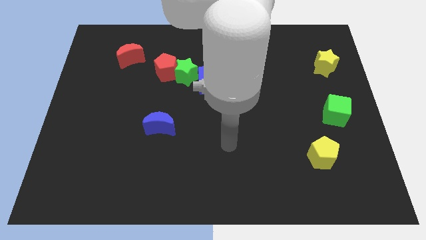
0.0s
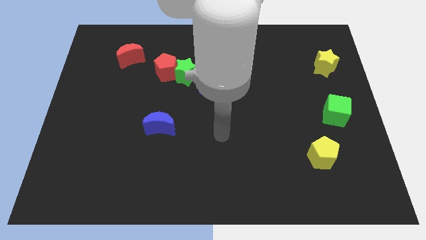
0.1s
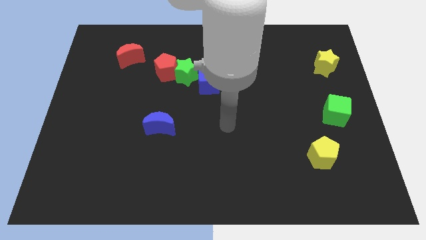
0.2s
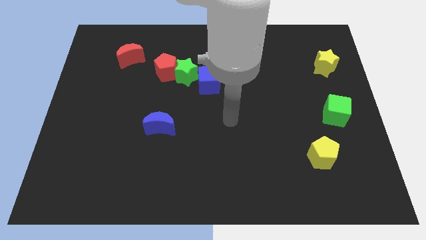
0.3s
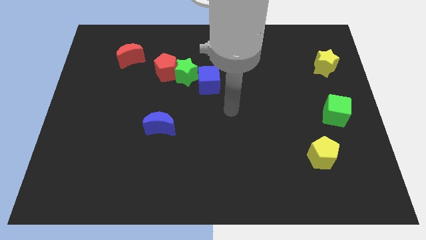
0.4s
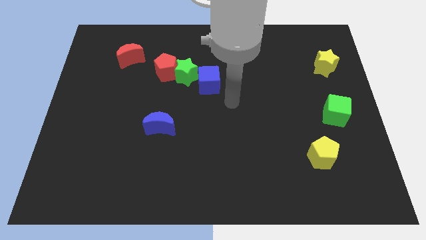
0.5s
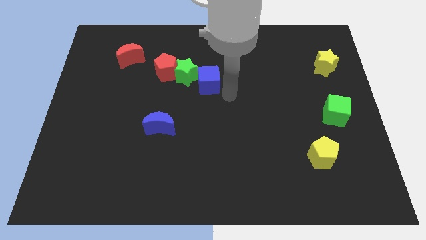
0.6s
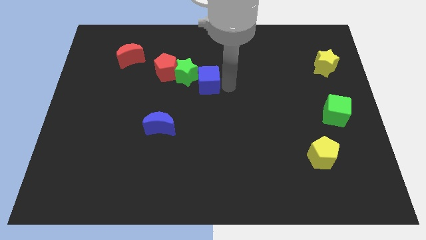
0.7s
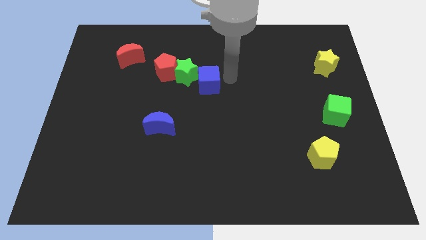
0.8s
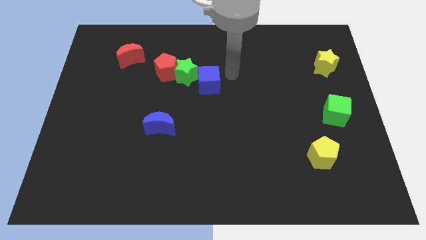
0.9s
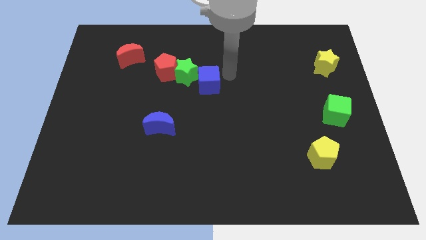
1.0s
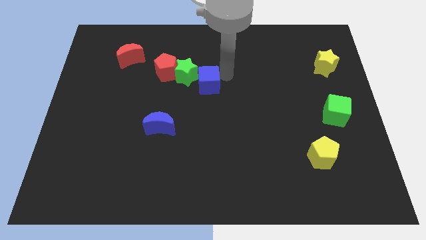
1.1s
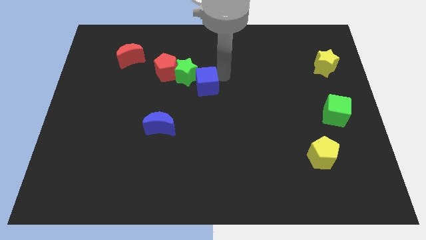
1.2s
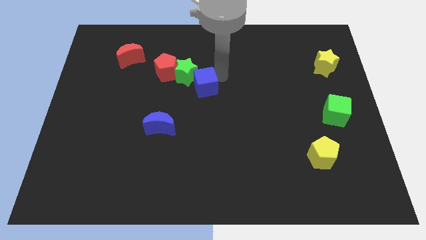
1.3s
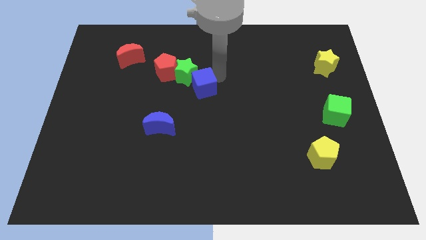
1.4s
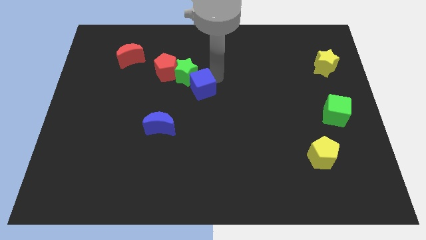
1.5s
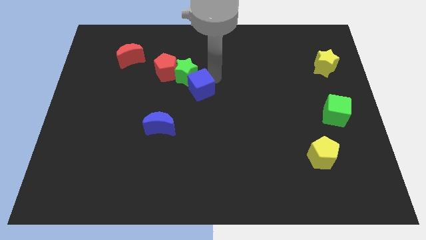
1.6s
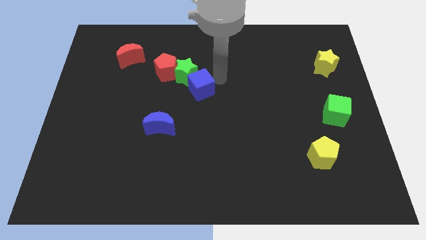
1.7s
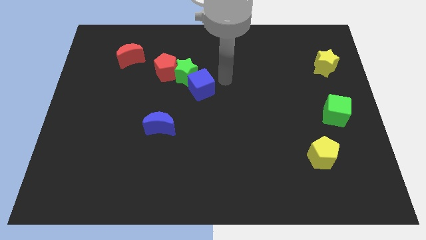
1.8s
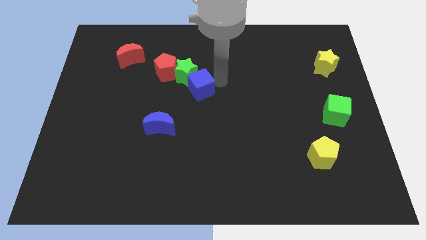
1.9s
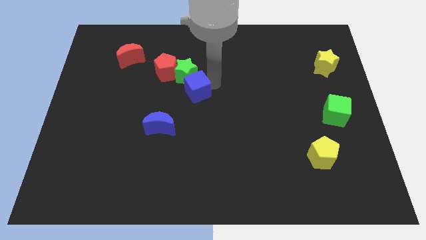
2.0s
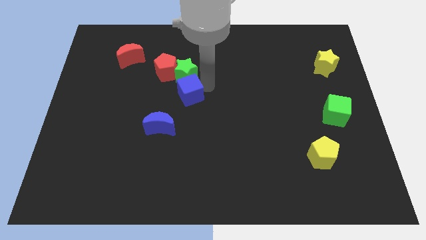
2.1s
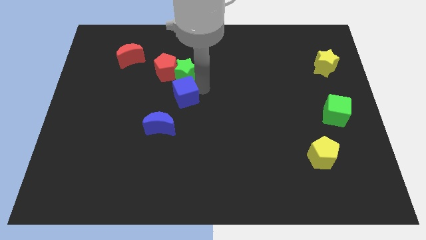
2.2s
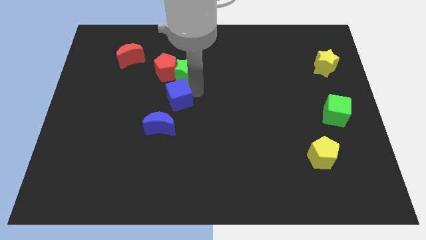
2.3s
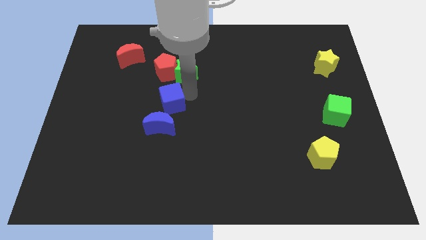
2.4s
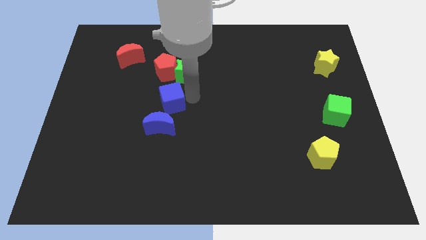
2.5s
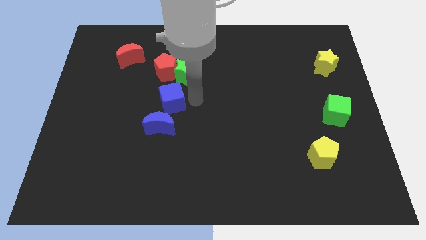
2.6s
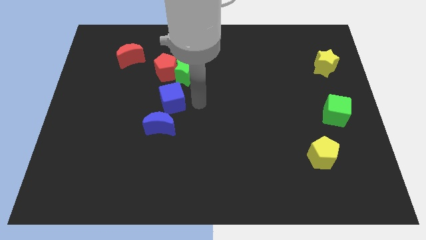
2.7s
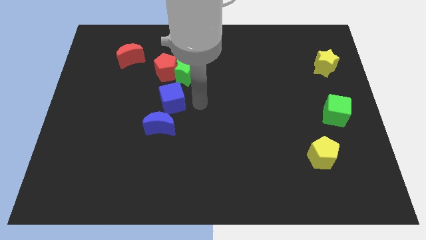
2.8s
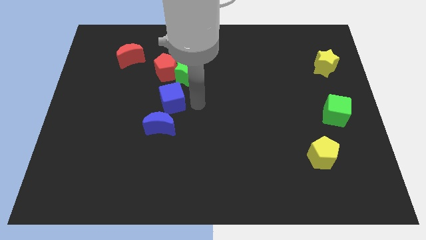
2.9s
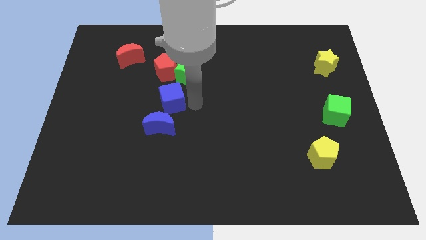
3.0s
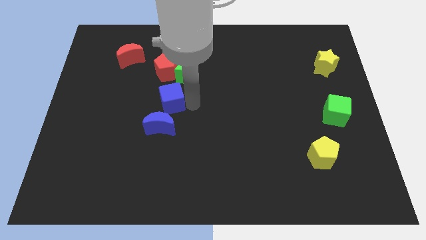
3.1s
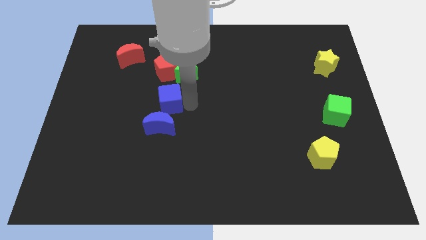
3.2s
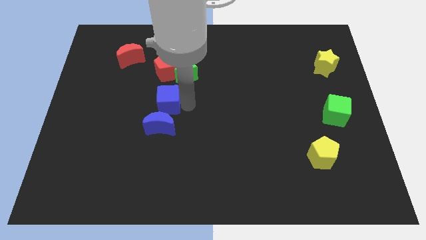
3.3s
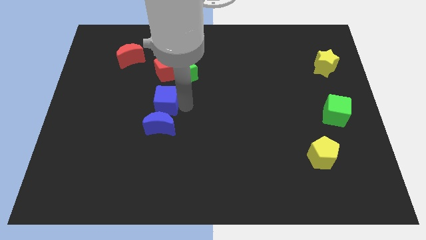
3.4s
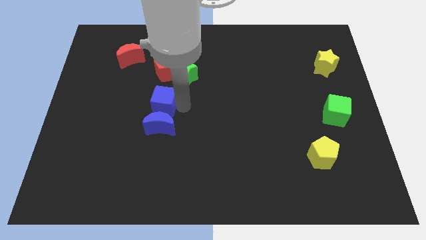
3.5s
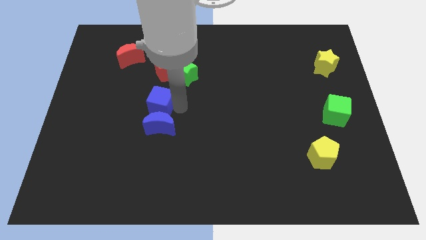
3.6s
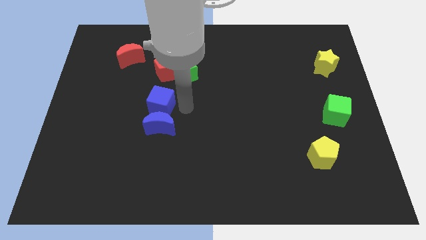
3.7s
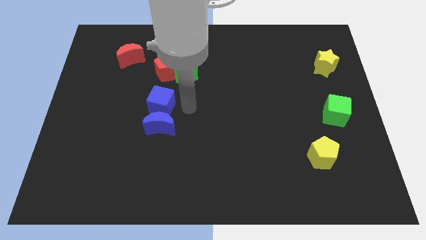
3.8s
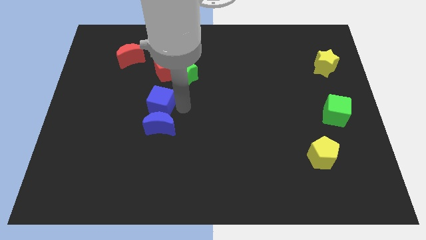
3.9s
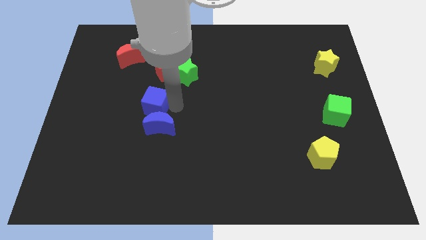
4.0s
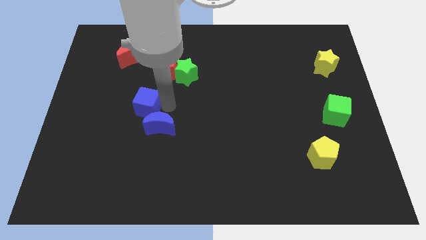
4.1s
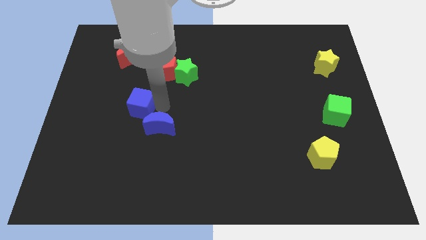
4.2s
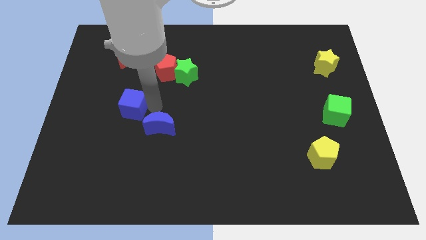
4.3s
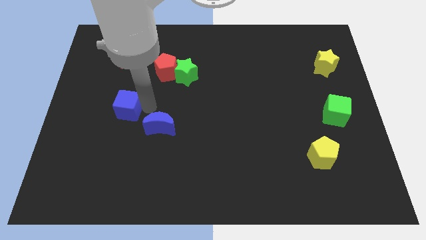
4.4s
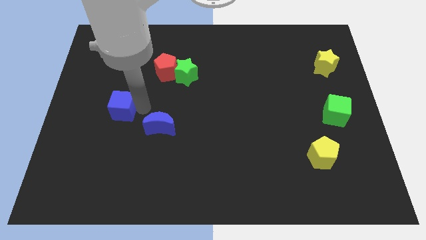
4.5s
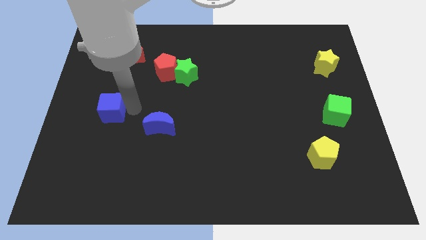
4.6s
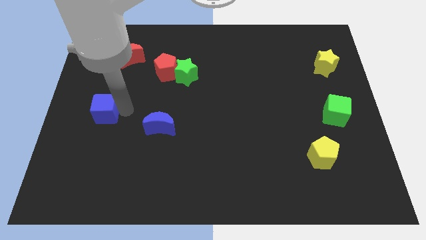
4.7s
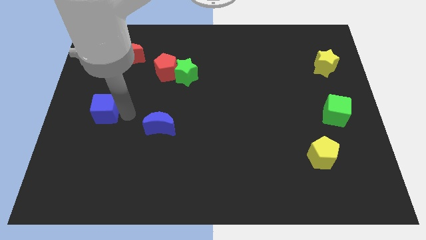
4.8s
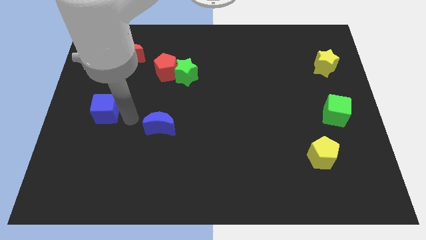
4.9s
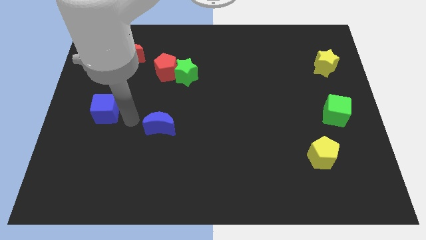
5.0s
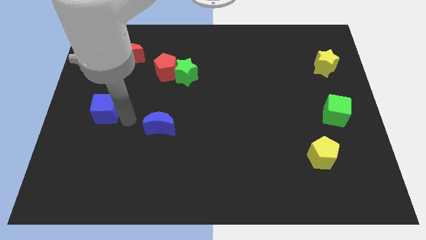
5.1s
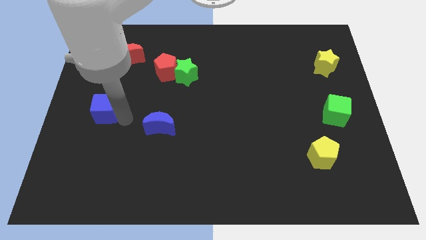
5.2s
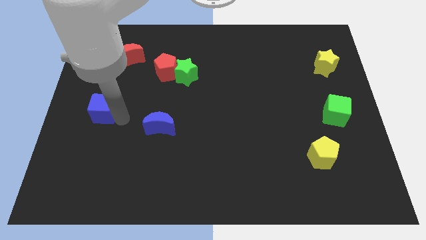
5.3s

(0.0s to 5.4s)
slide the blue cube to the left side
